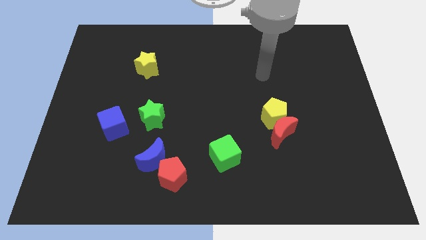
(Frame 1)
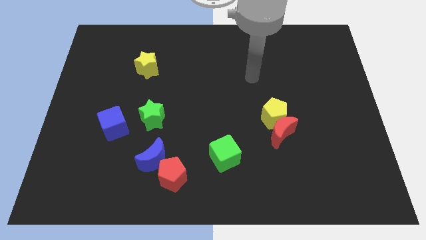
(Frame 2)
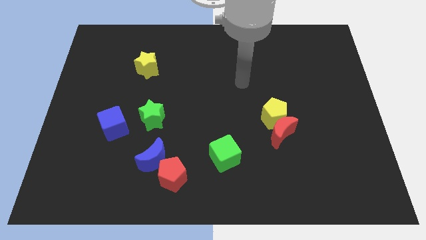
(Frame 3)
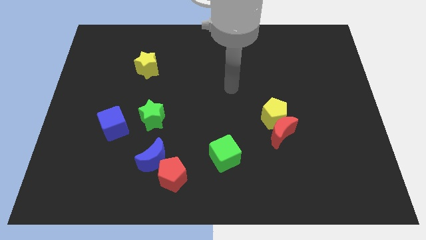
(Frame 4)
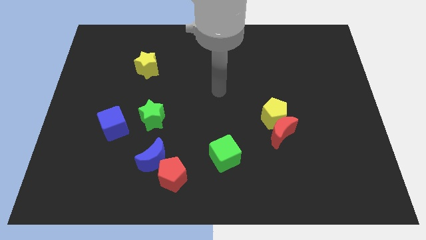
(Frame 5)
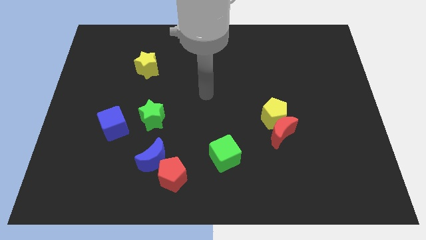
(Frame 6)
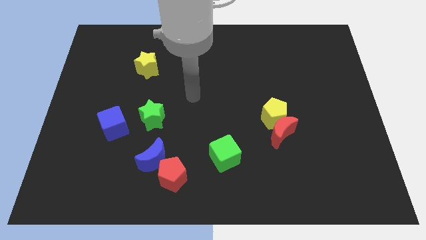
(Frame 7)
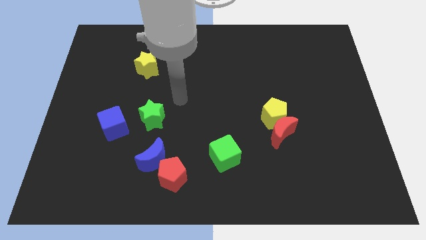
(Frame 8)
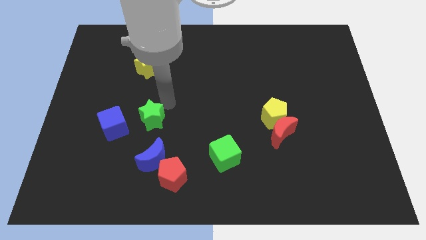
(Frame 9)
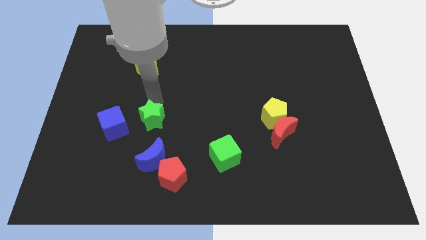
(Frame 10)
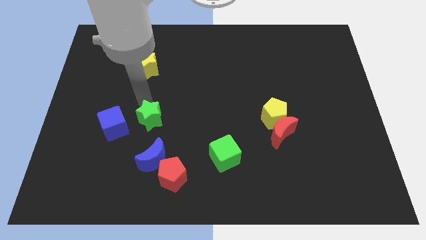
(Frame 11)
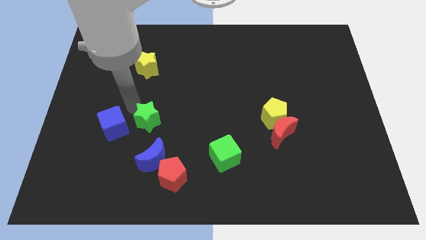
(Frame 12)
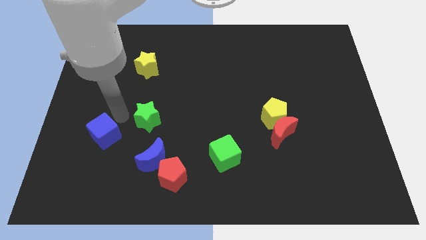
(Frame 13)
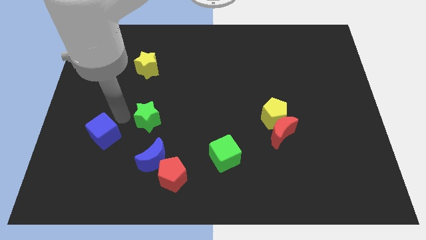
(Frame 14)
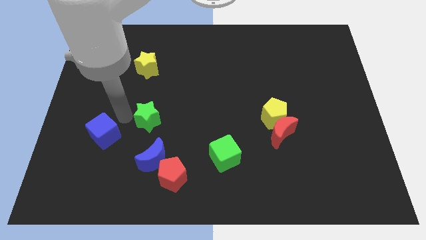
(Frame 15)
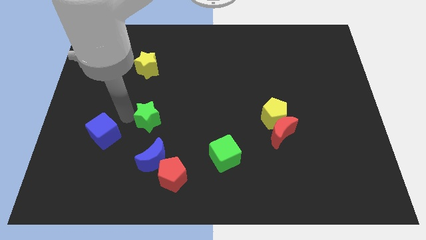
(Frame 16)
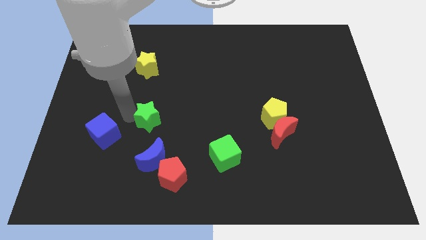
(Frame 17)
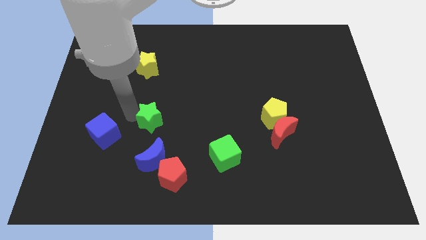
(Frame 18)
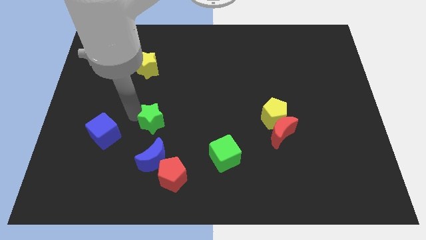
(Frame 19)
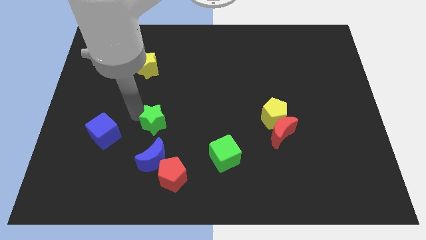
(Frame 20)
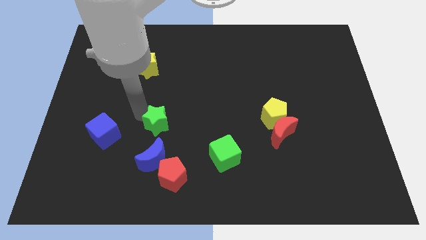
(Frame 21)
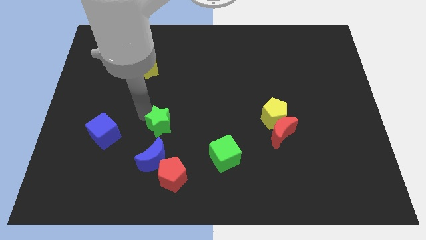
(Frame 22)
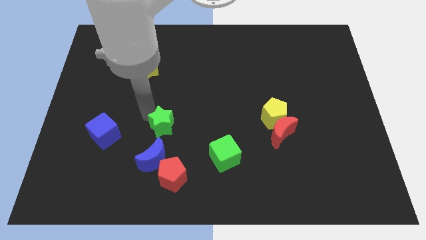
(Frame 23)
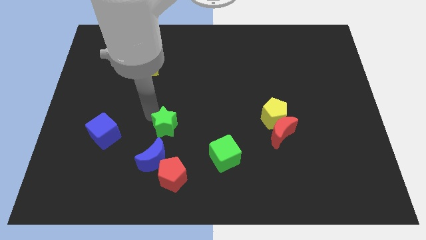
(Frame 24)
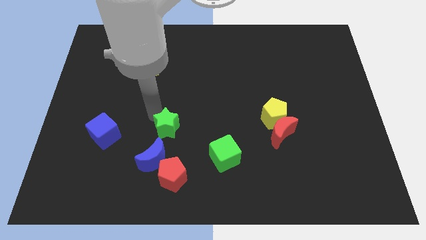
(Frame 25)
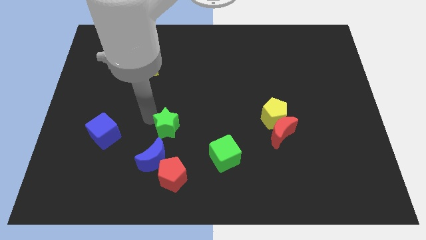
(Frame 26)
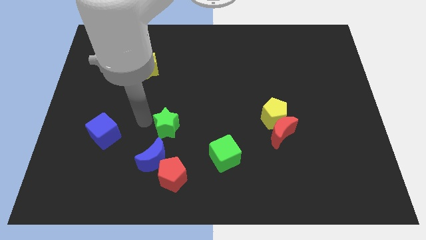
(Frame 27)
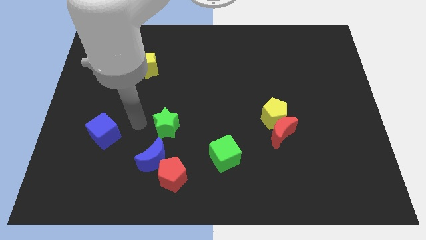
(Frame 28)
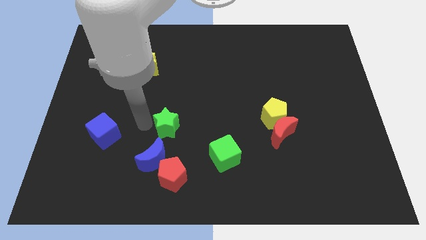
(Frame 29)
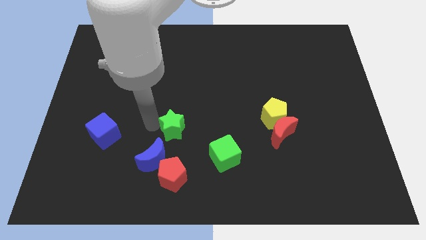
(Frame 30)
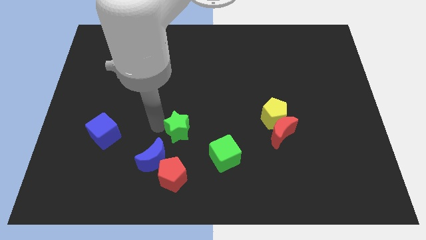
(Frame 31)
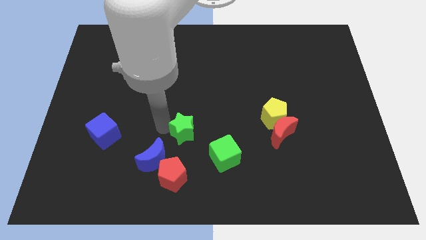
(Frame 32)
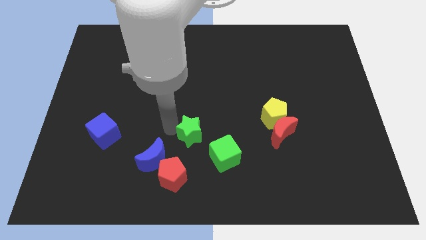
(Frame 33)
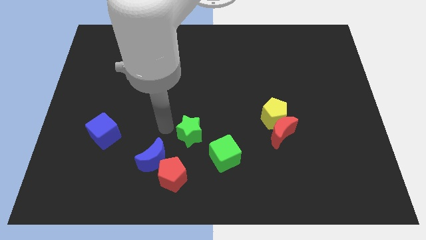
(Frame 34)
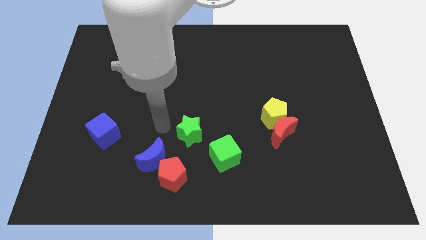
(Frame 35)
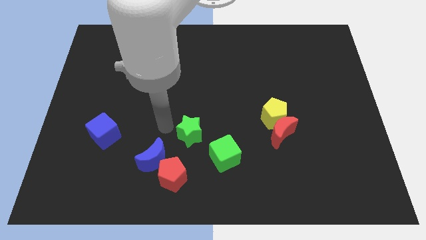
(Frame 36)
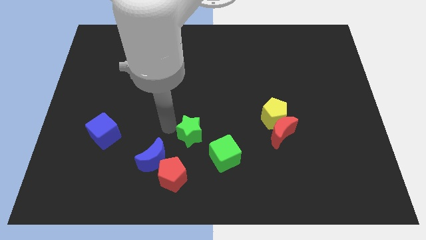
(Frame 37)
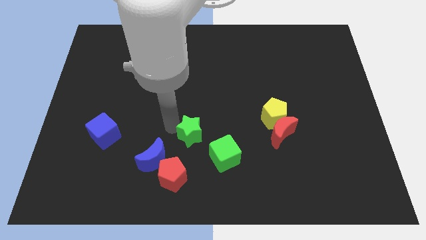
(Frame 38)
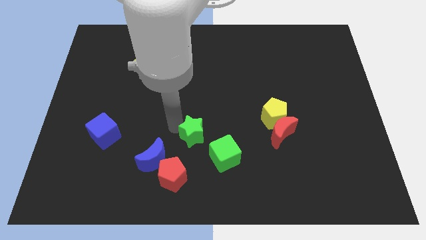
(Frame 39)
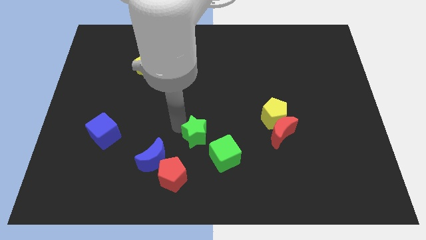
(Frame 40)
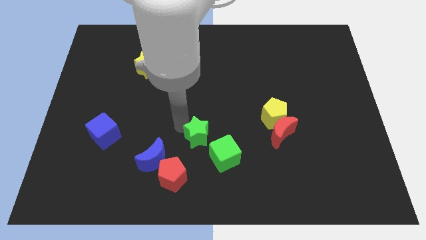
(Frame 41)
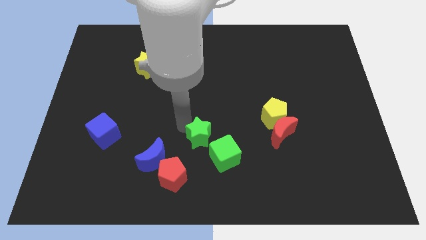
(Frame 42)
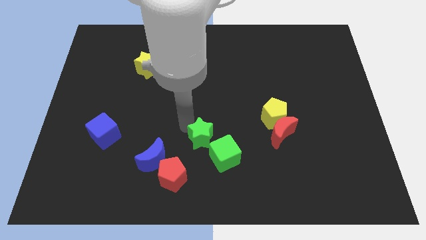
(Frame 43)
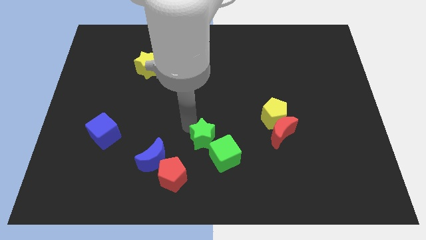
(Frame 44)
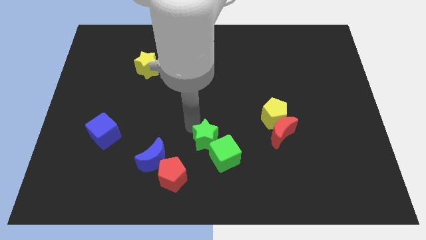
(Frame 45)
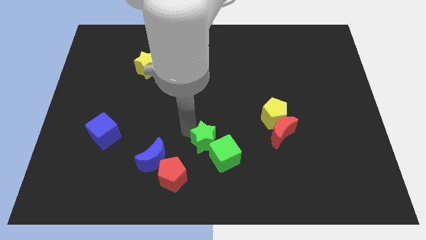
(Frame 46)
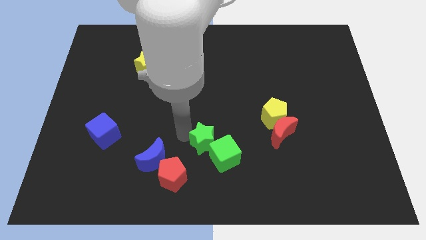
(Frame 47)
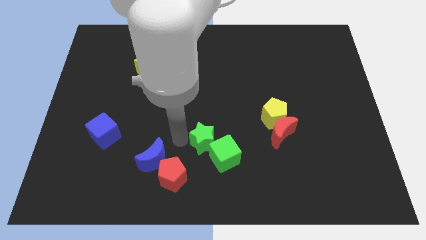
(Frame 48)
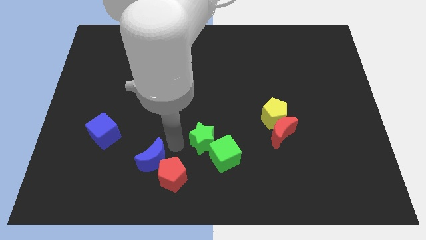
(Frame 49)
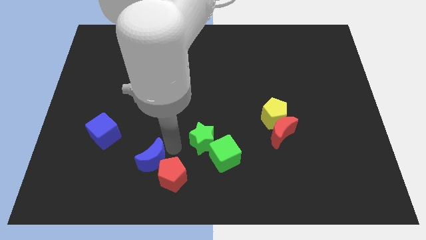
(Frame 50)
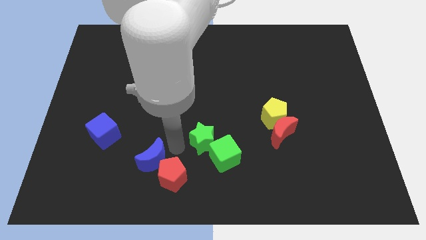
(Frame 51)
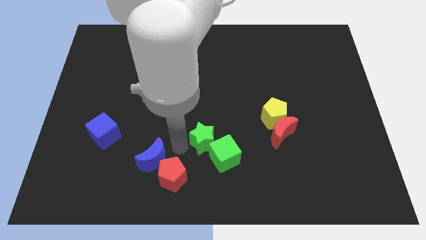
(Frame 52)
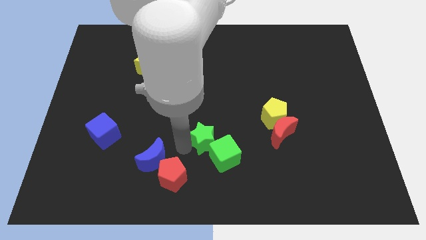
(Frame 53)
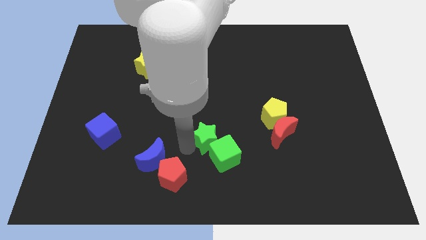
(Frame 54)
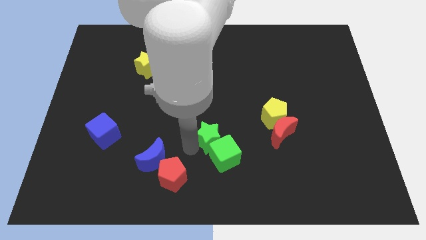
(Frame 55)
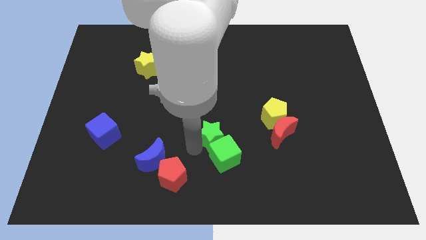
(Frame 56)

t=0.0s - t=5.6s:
push the green star just left of the red moon

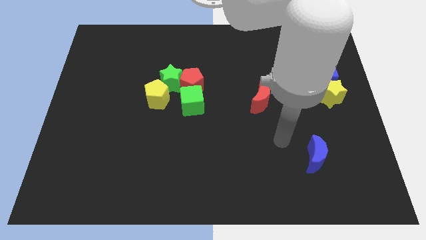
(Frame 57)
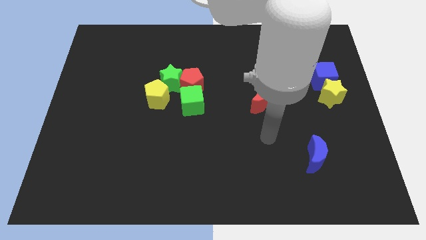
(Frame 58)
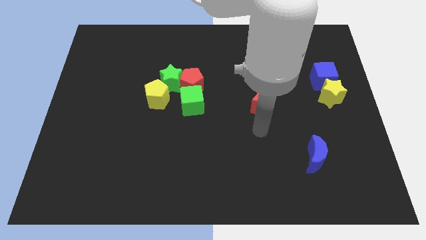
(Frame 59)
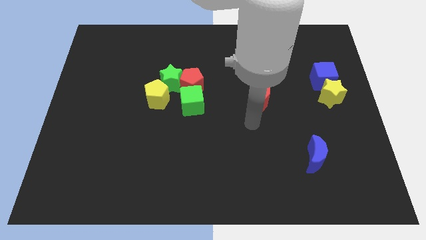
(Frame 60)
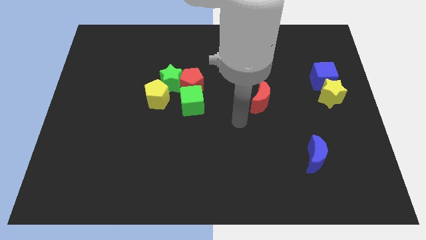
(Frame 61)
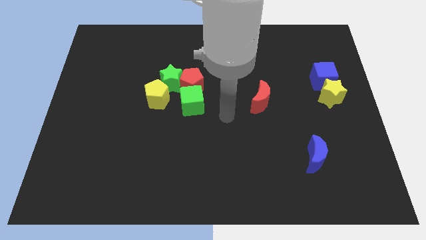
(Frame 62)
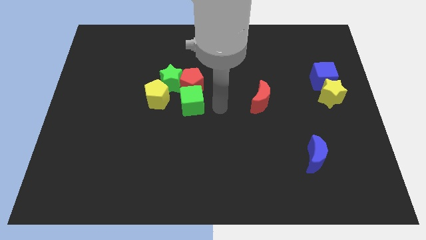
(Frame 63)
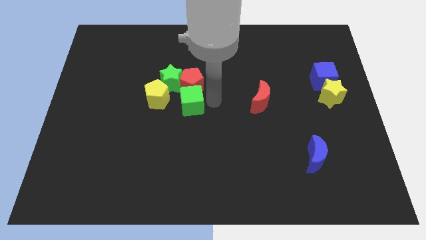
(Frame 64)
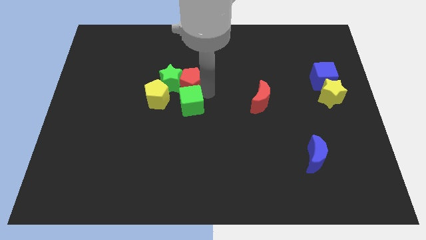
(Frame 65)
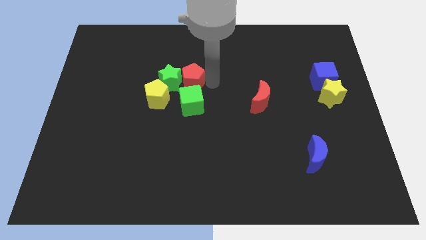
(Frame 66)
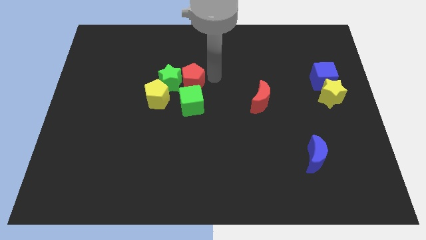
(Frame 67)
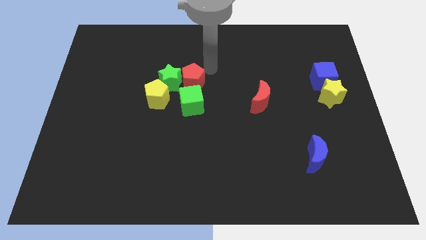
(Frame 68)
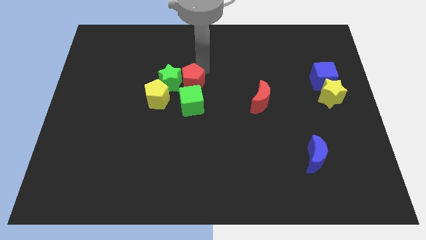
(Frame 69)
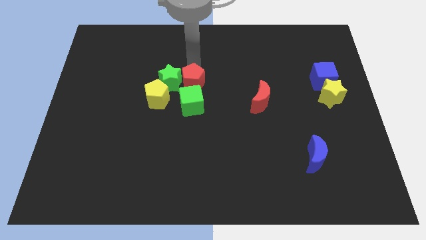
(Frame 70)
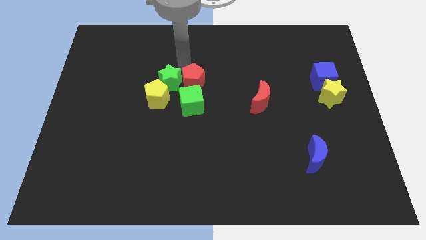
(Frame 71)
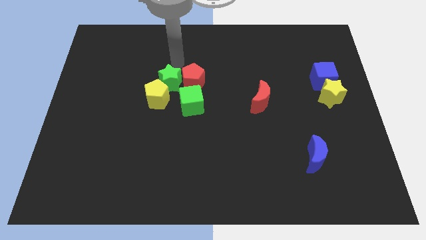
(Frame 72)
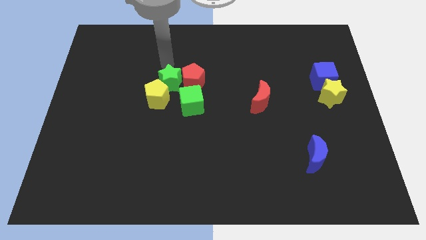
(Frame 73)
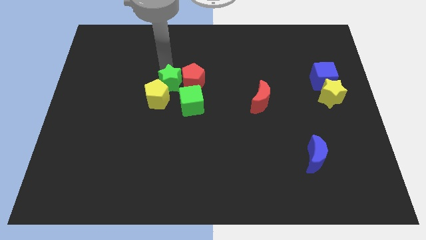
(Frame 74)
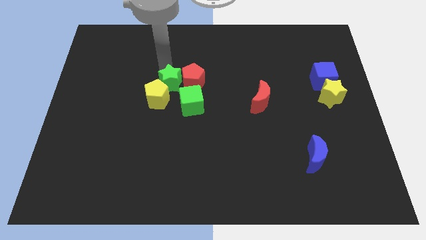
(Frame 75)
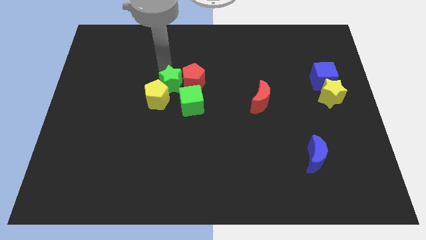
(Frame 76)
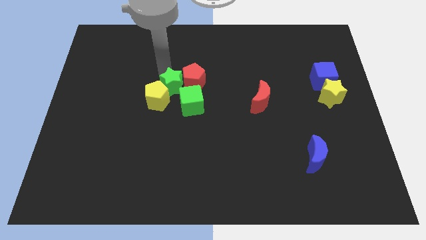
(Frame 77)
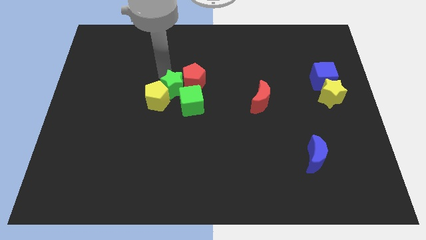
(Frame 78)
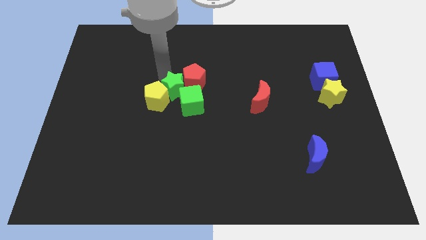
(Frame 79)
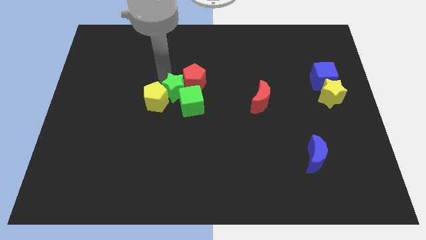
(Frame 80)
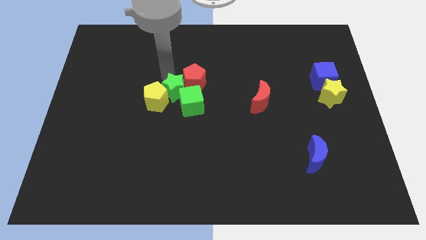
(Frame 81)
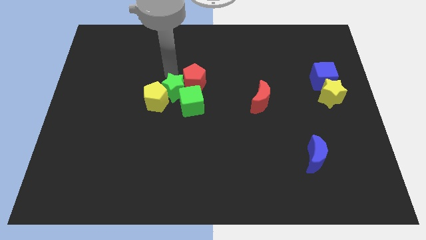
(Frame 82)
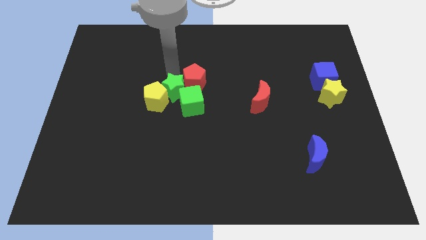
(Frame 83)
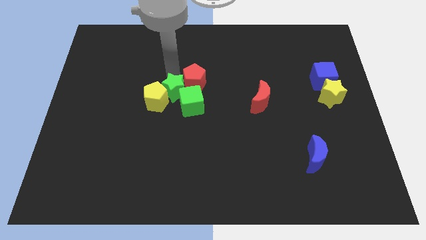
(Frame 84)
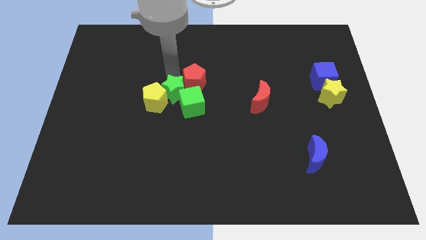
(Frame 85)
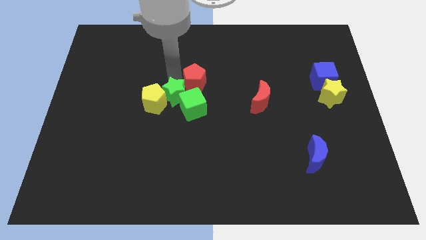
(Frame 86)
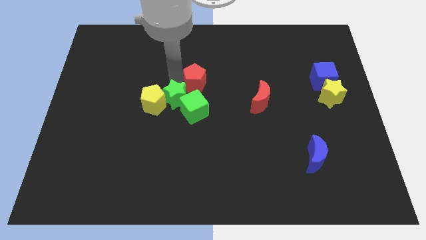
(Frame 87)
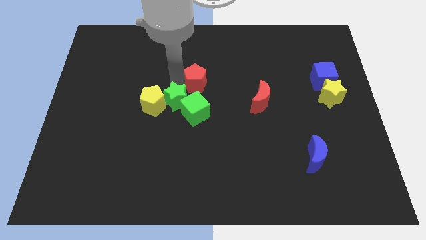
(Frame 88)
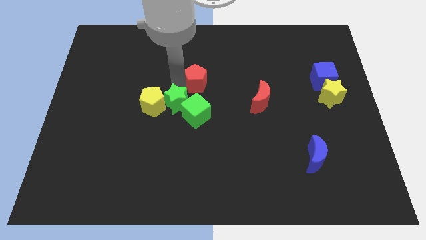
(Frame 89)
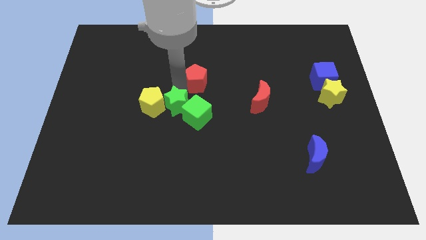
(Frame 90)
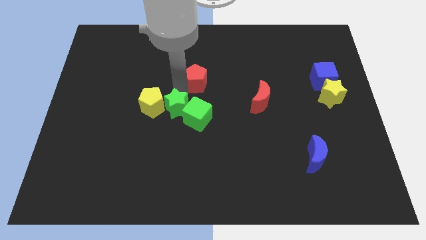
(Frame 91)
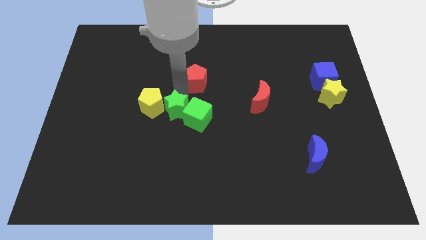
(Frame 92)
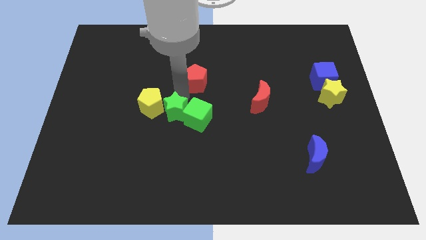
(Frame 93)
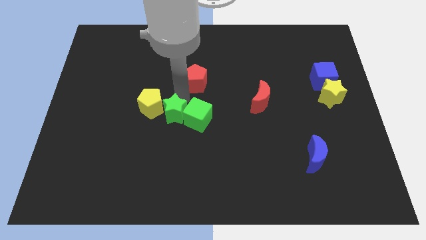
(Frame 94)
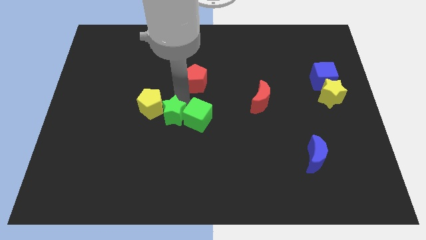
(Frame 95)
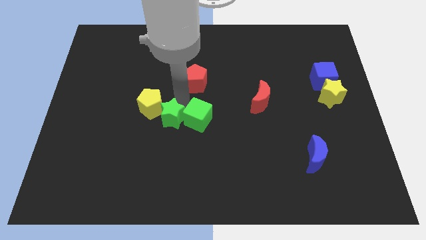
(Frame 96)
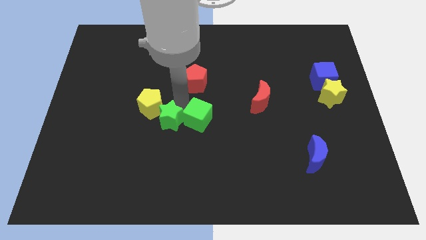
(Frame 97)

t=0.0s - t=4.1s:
put the green star to the bottom of the yellow pentagon
